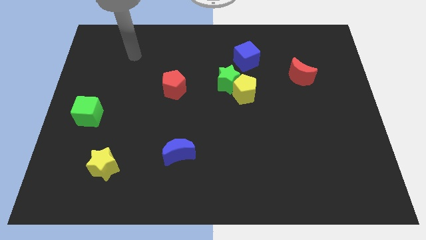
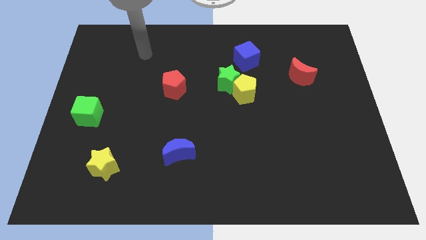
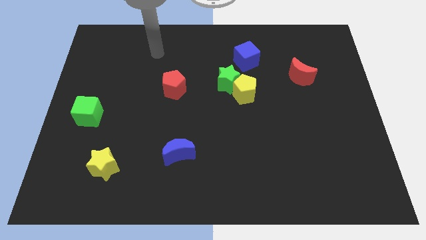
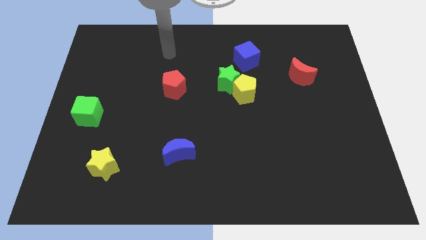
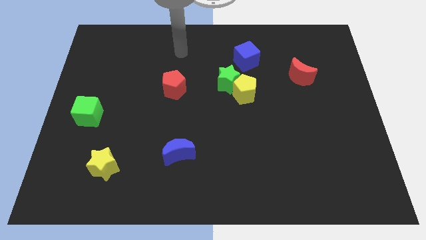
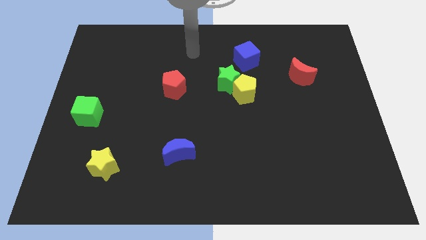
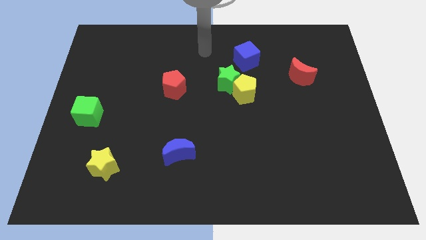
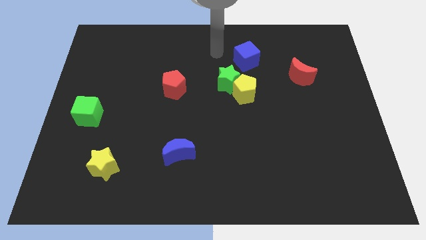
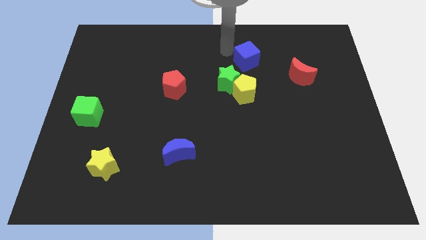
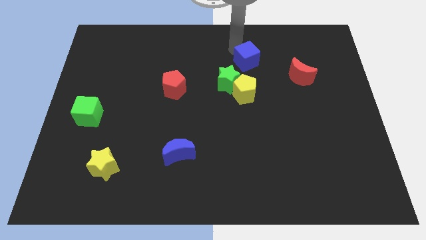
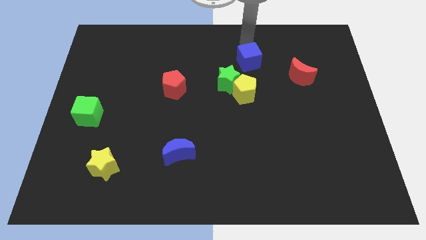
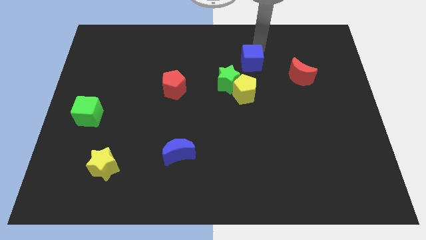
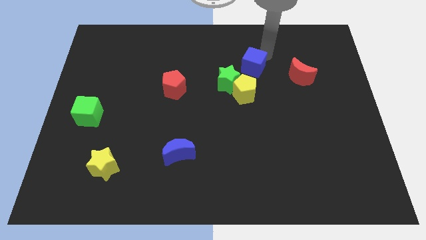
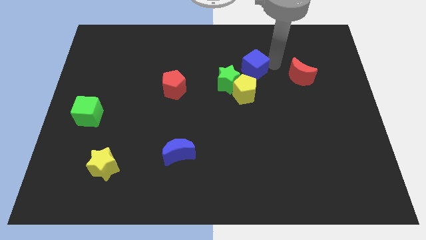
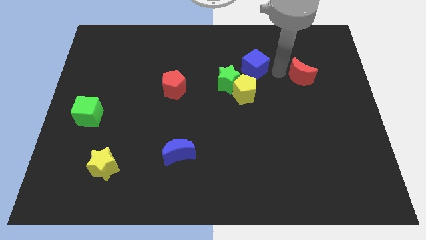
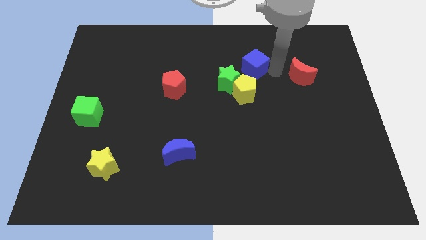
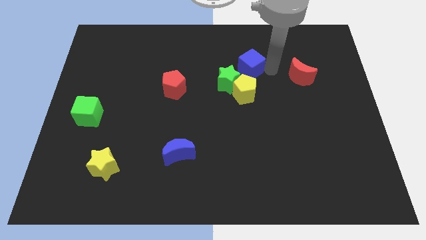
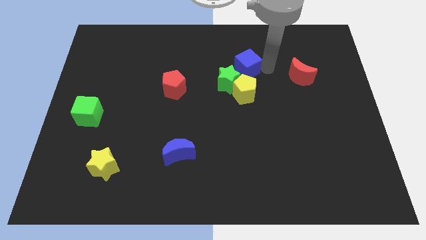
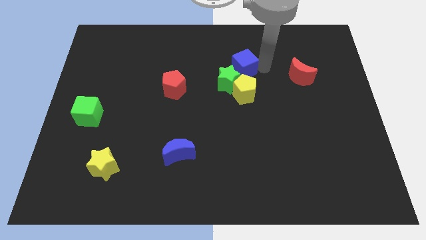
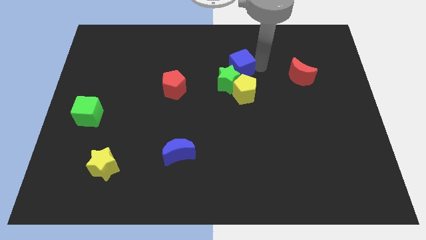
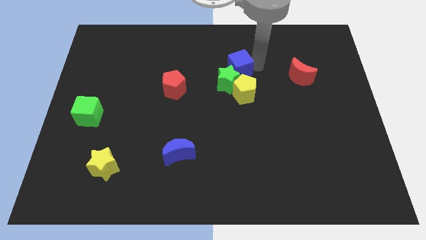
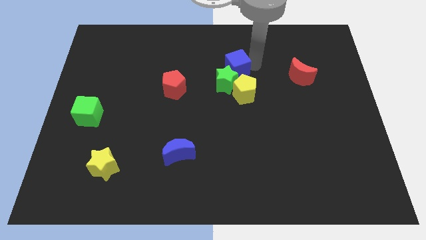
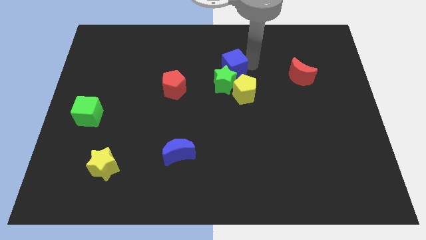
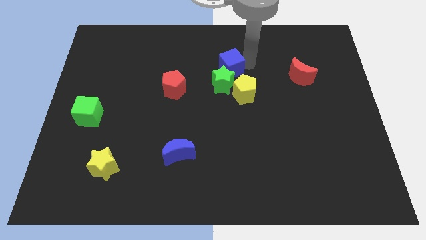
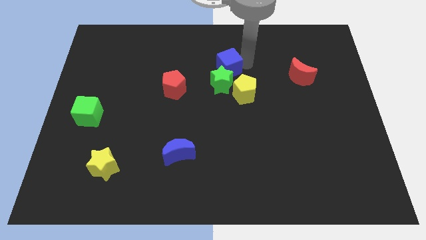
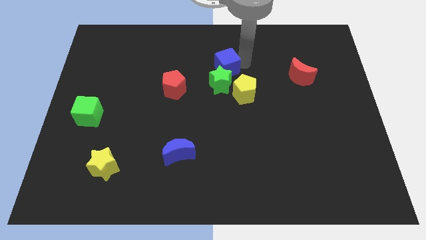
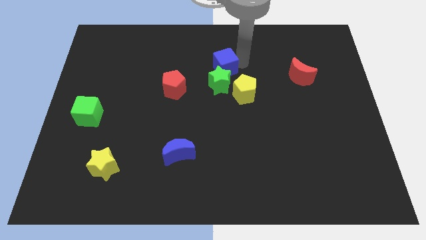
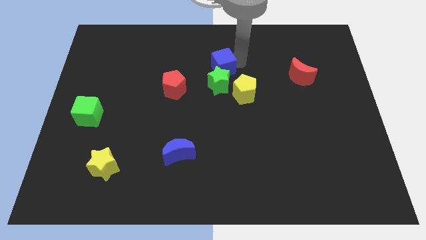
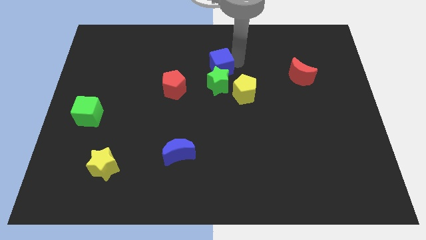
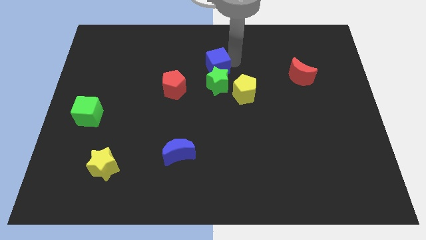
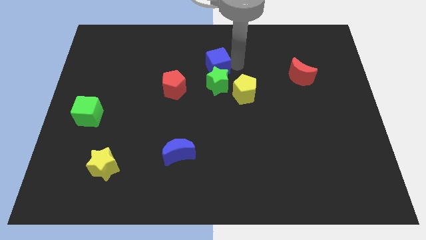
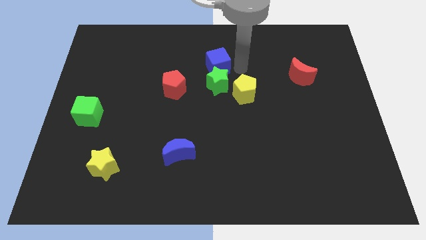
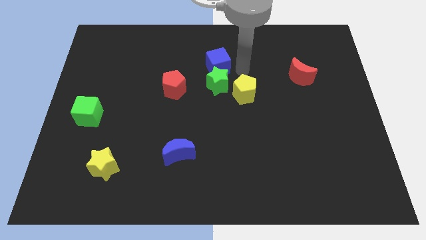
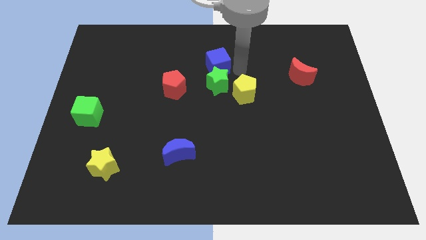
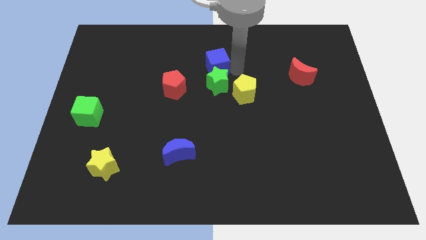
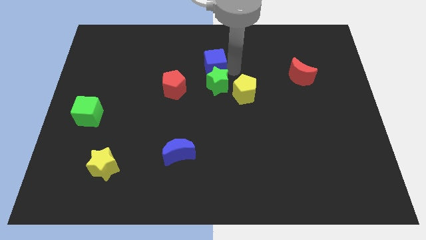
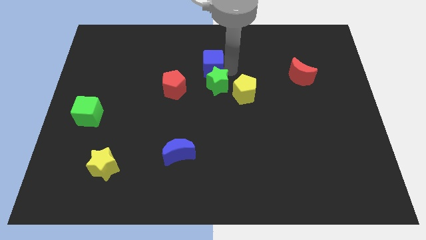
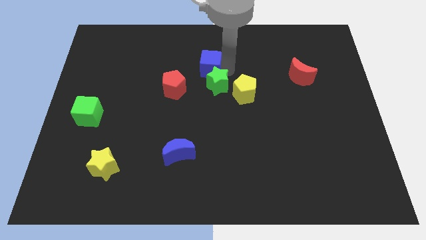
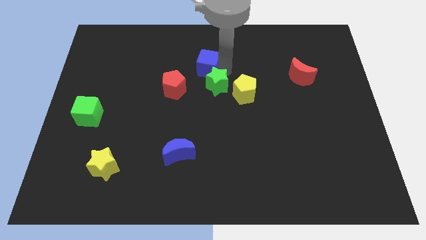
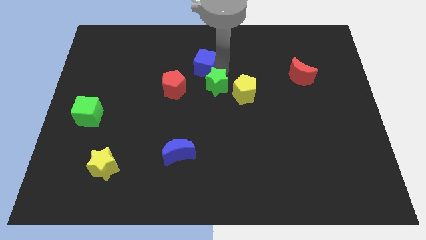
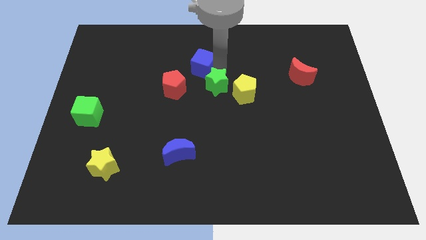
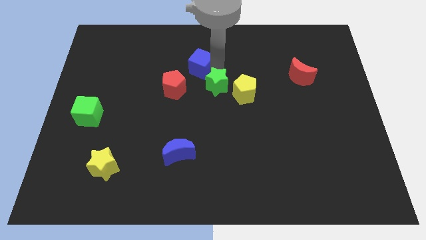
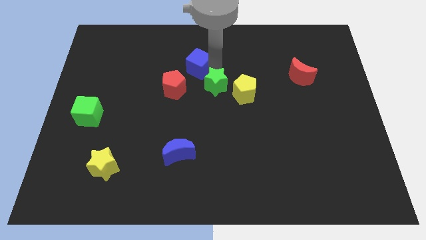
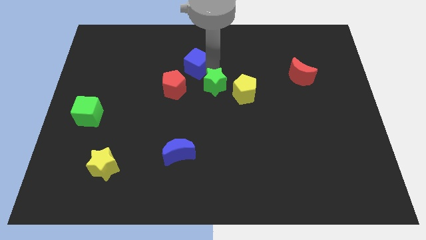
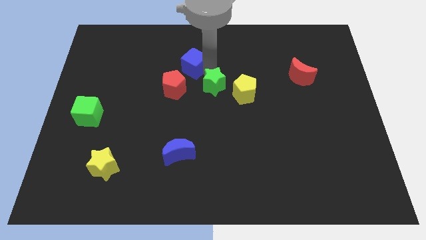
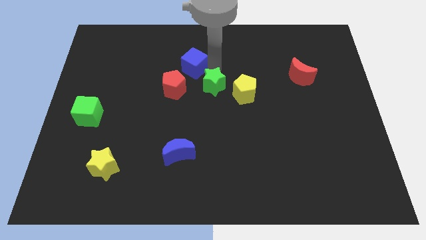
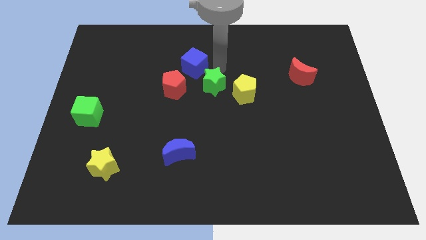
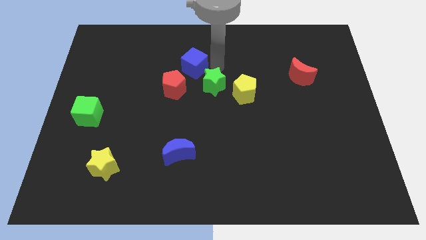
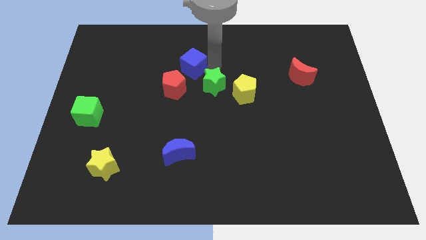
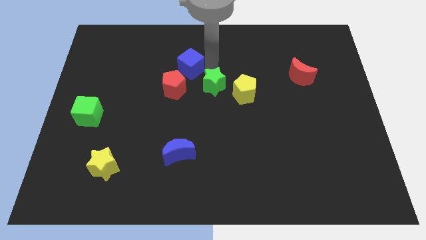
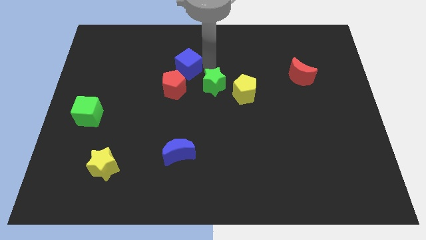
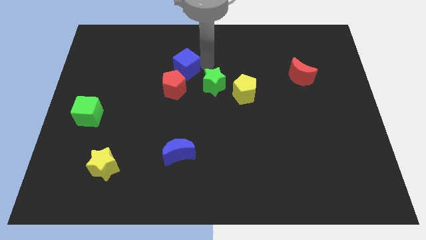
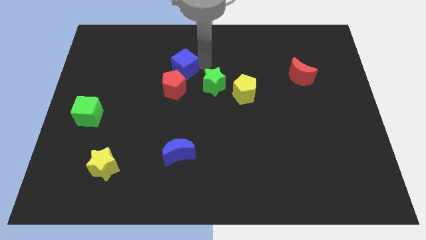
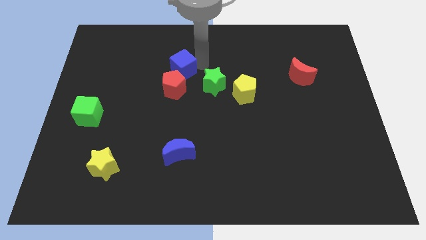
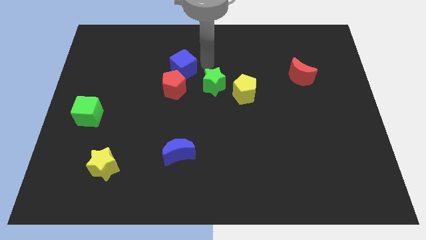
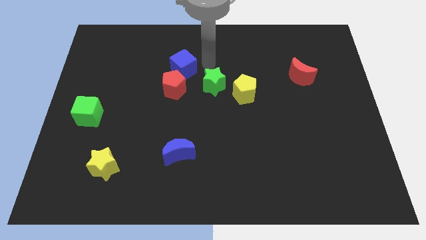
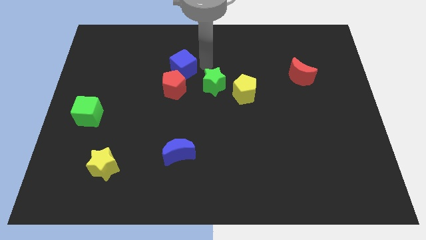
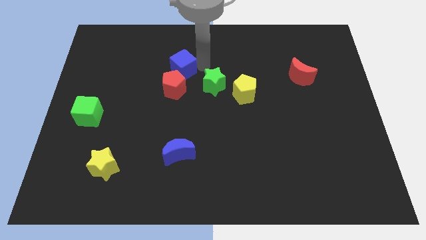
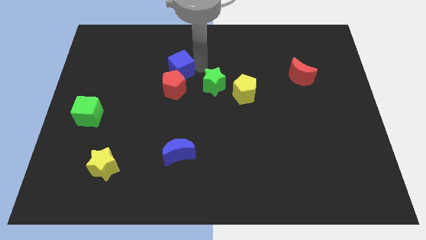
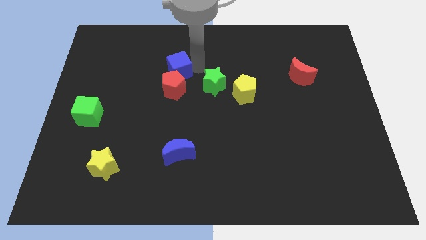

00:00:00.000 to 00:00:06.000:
push the blue cube to the top left side of the red pentagon

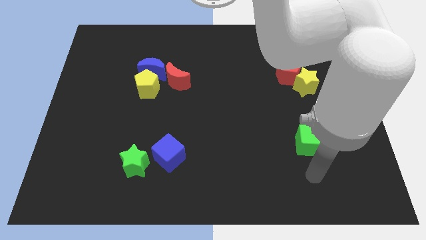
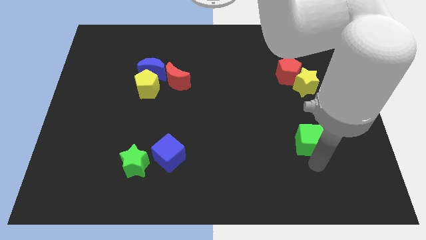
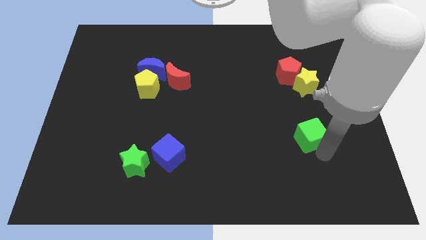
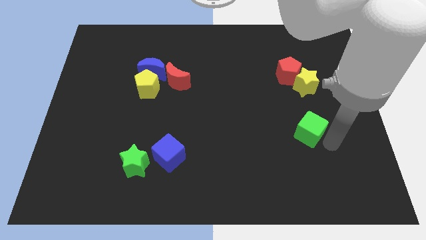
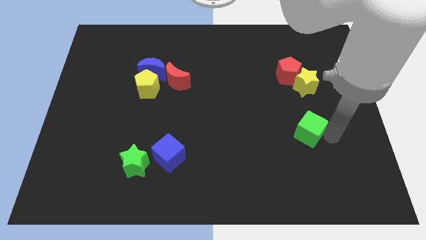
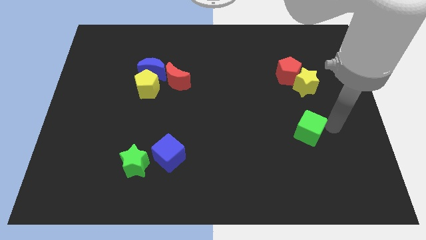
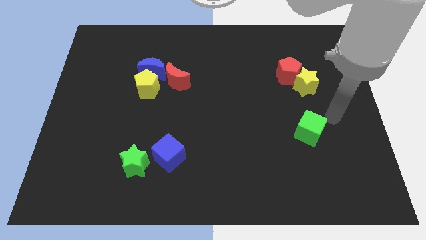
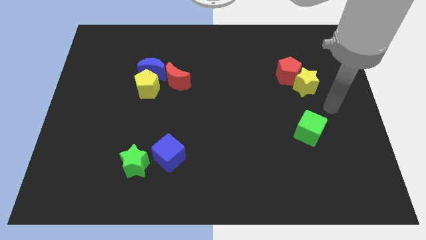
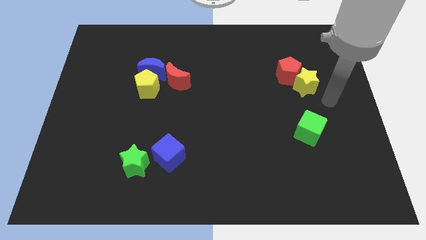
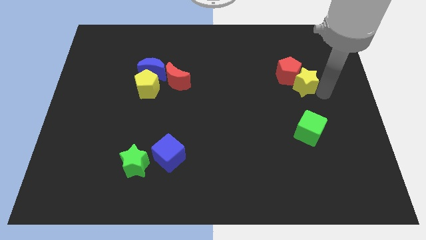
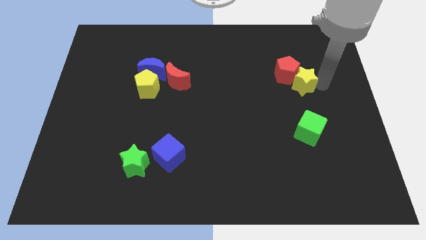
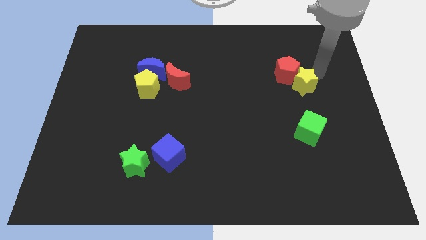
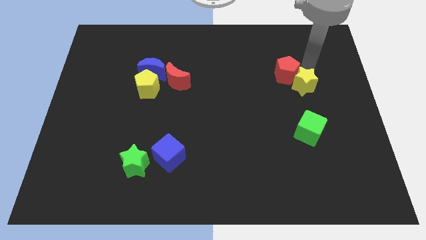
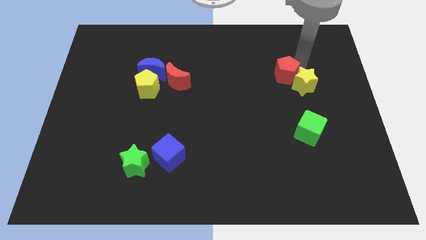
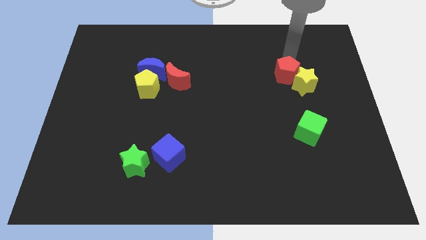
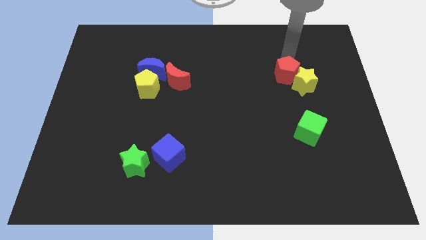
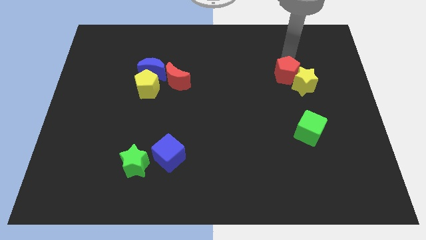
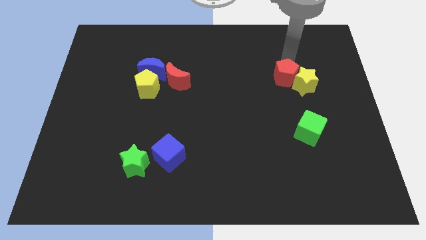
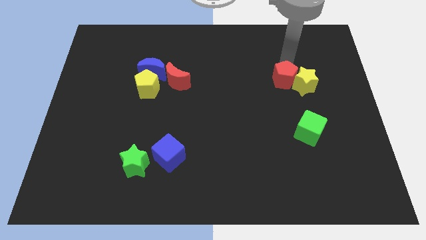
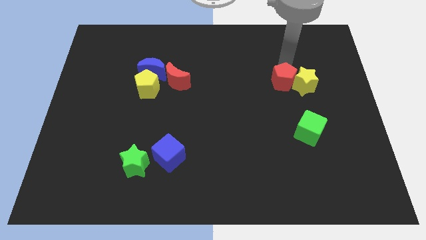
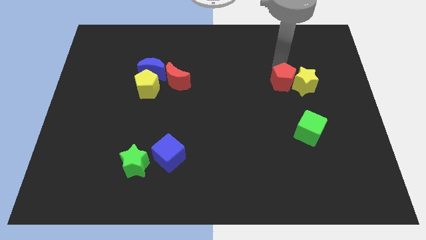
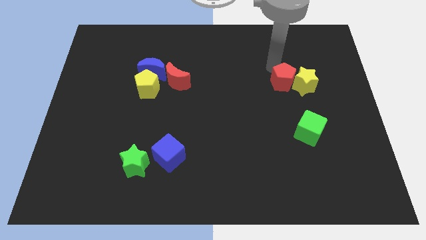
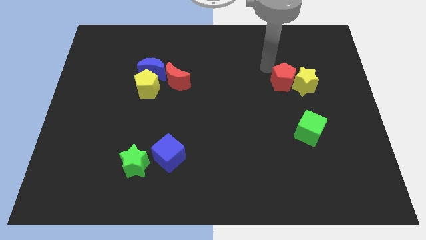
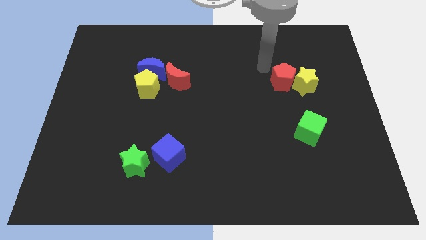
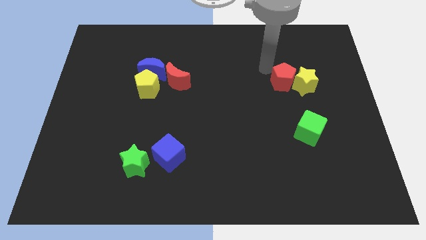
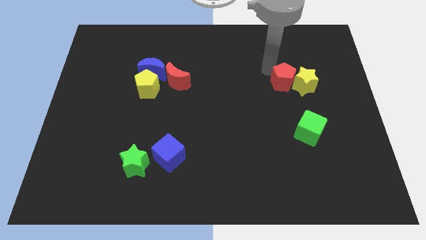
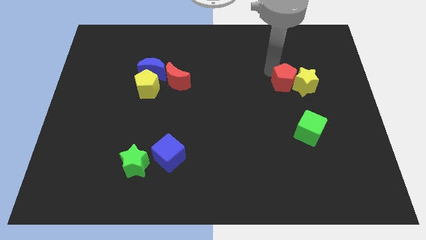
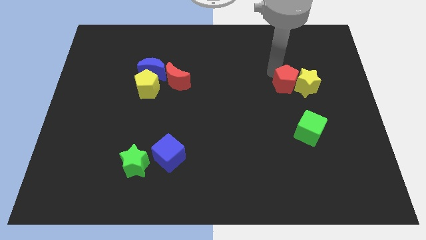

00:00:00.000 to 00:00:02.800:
slide the red pentagon to the top of the green cube
